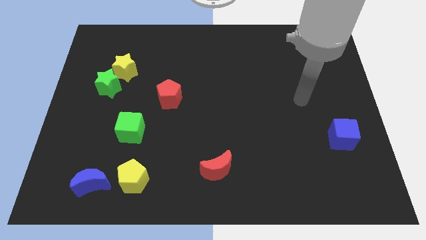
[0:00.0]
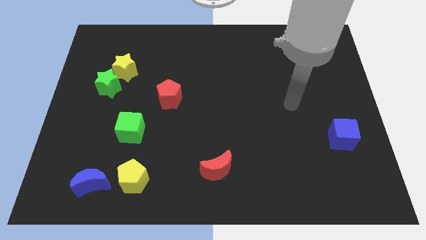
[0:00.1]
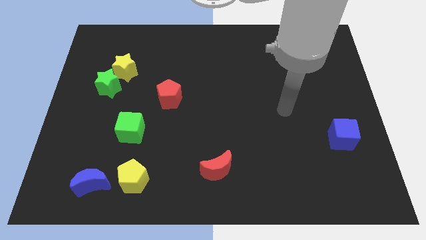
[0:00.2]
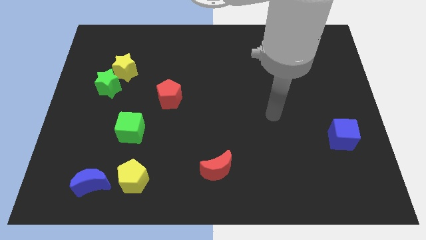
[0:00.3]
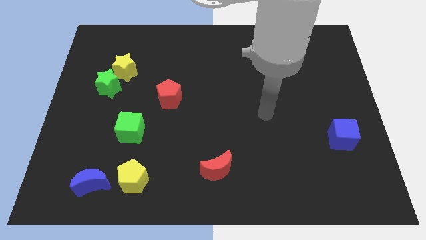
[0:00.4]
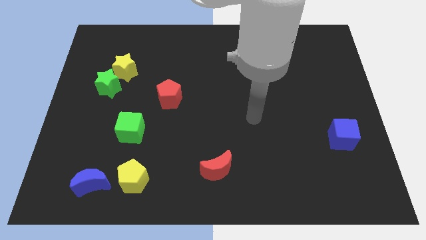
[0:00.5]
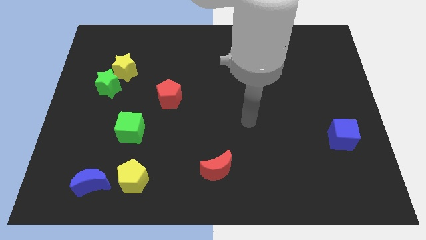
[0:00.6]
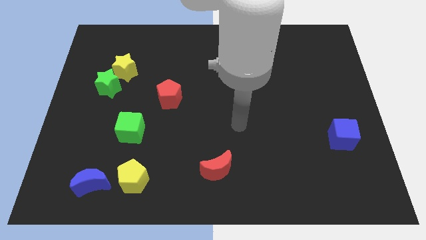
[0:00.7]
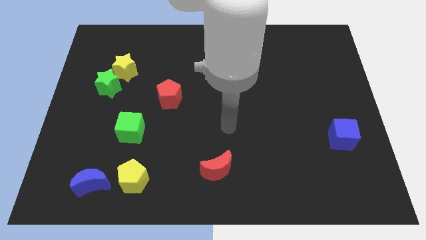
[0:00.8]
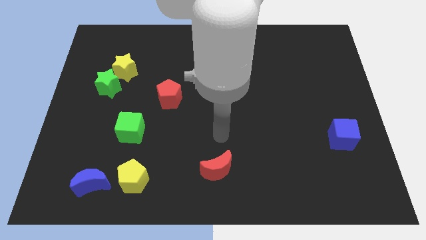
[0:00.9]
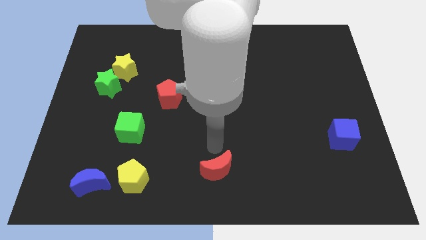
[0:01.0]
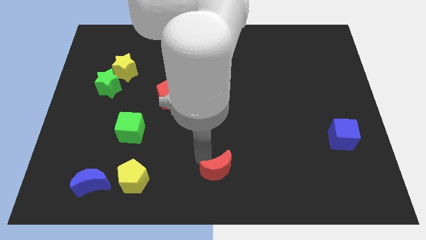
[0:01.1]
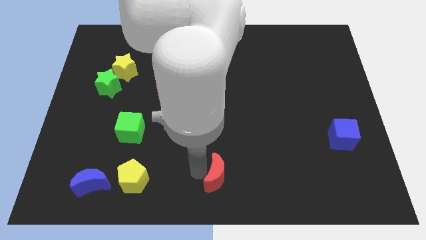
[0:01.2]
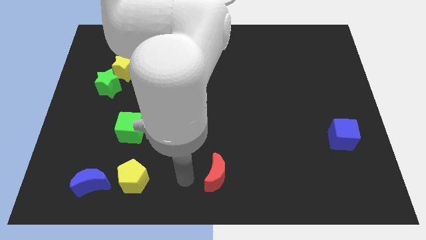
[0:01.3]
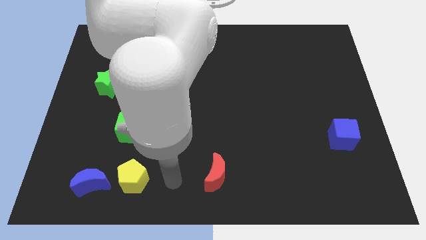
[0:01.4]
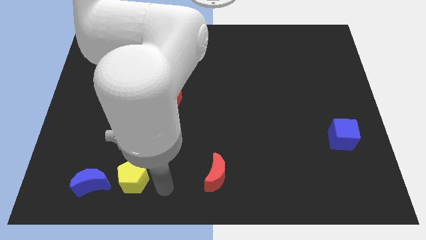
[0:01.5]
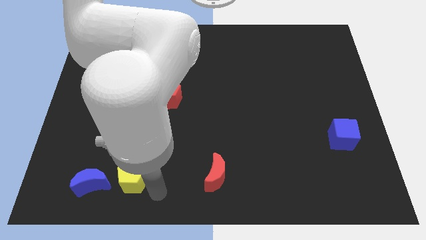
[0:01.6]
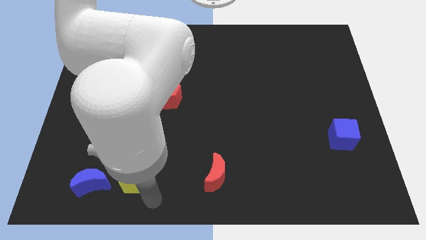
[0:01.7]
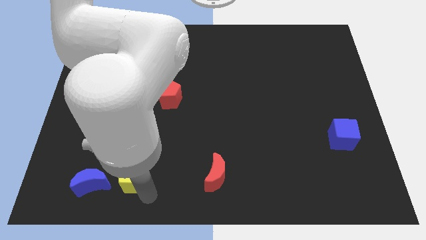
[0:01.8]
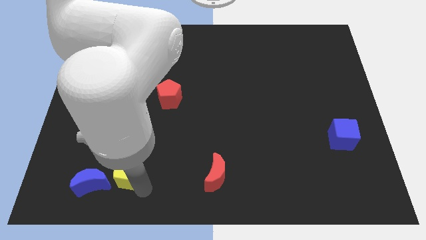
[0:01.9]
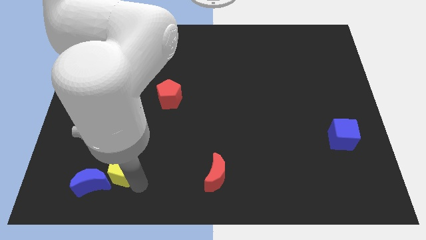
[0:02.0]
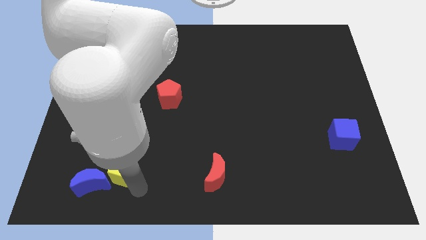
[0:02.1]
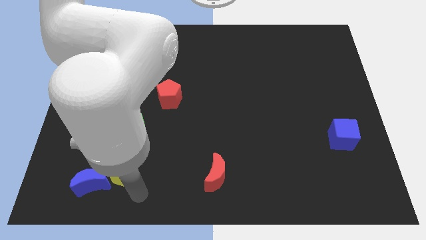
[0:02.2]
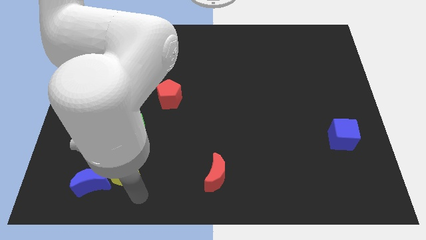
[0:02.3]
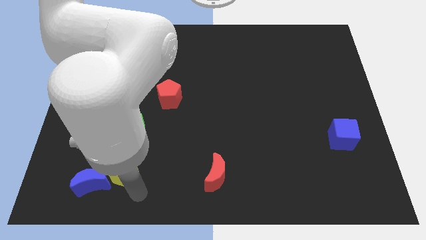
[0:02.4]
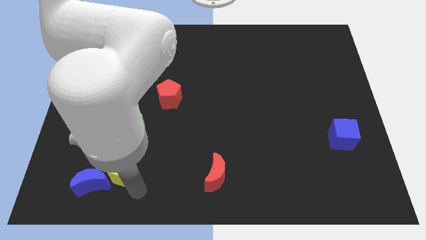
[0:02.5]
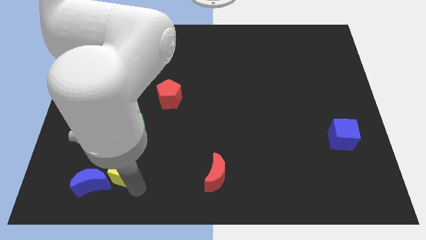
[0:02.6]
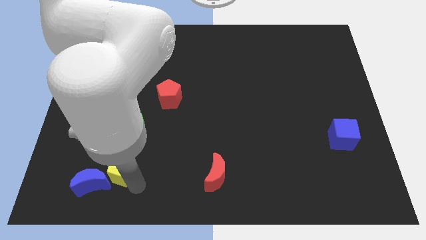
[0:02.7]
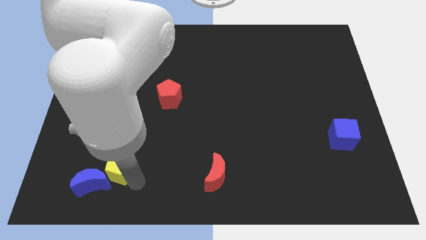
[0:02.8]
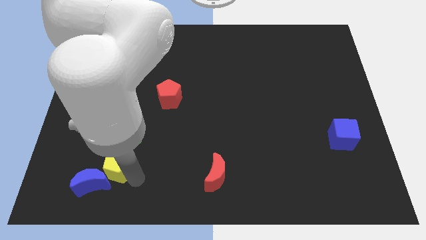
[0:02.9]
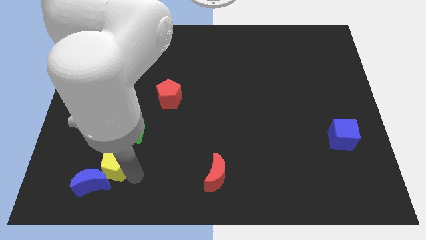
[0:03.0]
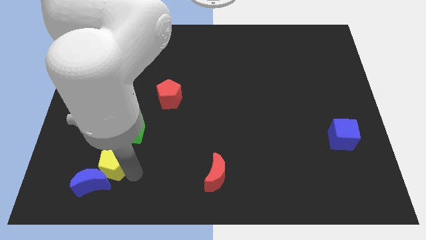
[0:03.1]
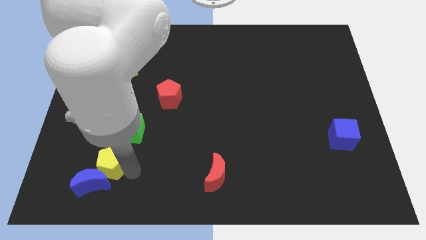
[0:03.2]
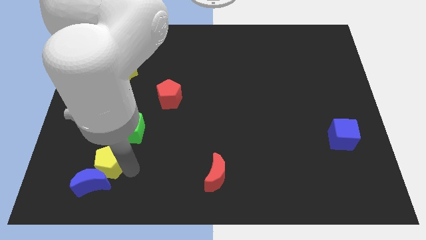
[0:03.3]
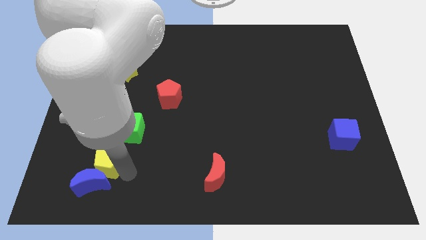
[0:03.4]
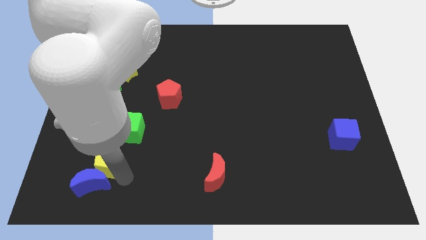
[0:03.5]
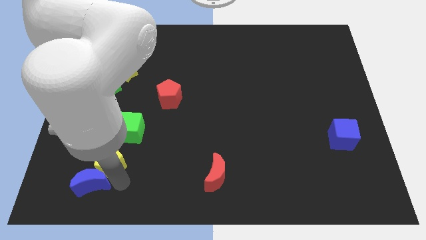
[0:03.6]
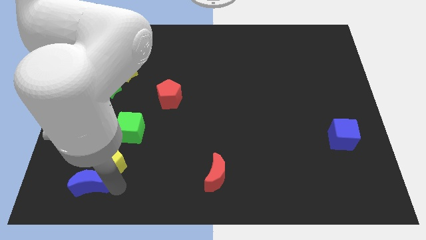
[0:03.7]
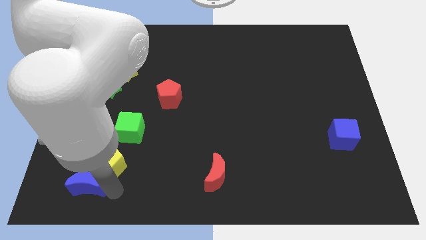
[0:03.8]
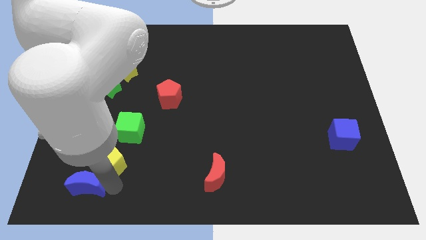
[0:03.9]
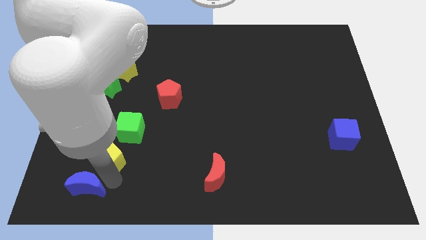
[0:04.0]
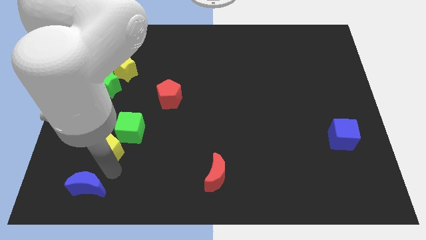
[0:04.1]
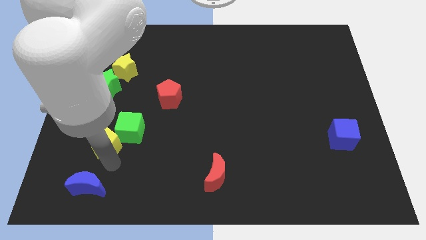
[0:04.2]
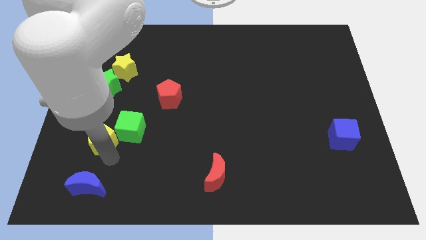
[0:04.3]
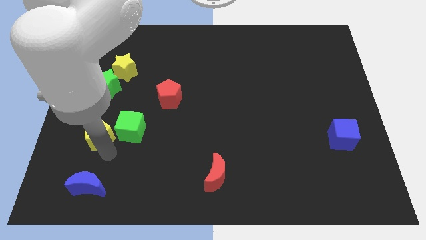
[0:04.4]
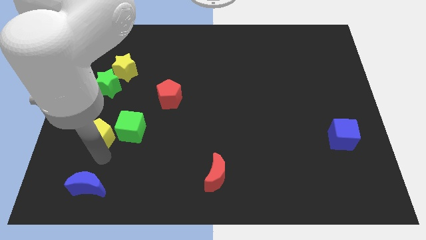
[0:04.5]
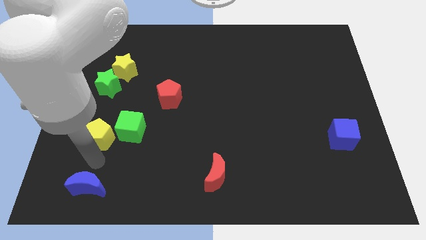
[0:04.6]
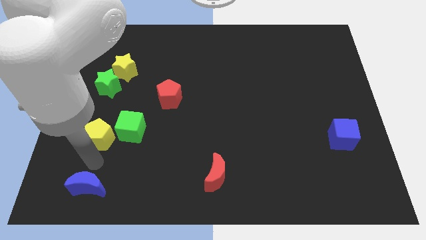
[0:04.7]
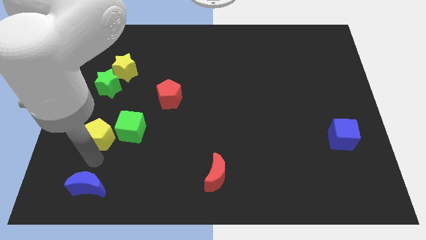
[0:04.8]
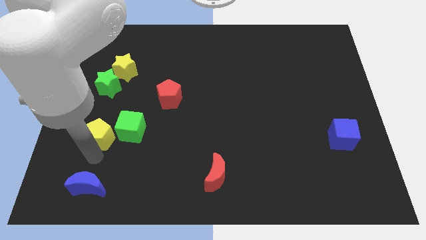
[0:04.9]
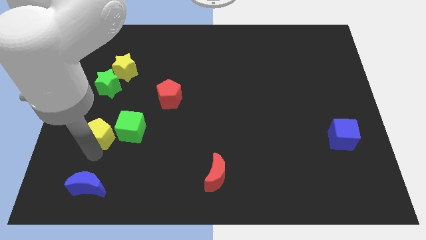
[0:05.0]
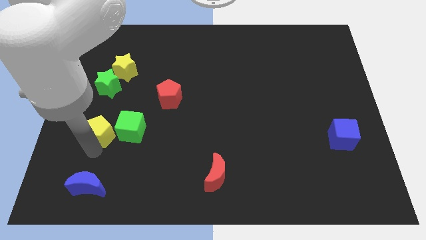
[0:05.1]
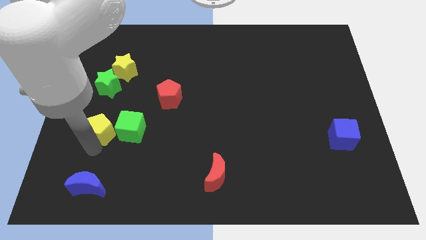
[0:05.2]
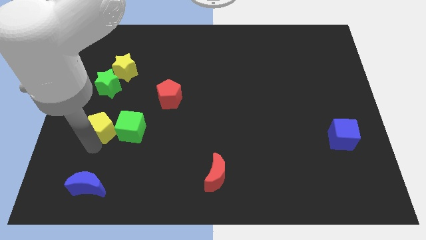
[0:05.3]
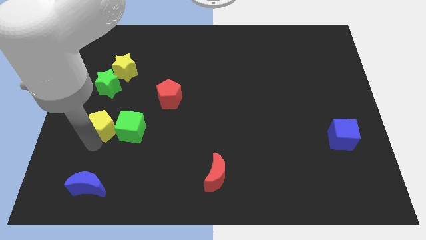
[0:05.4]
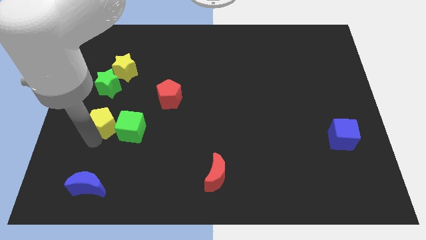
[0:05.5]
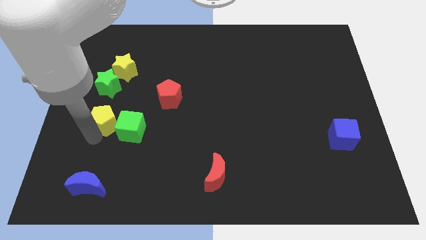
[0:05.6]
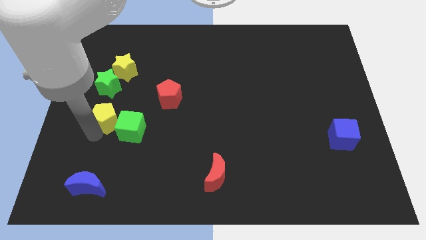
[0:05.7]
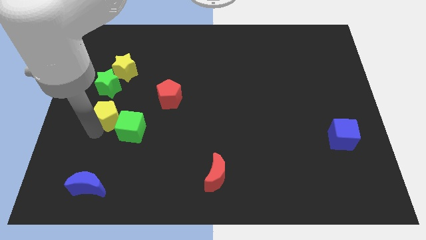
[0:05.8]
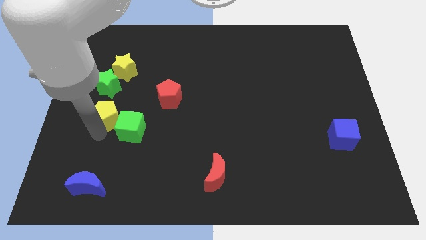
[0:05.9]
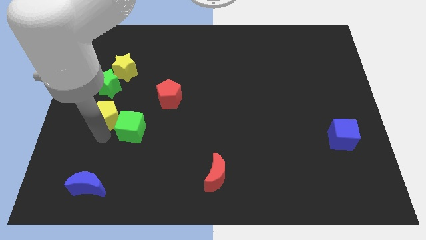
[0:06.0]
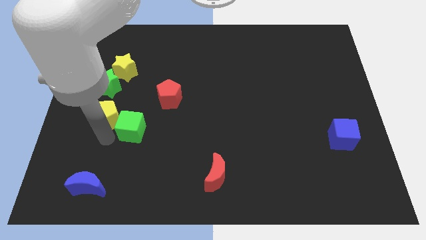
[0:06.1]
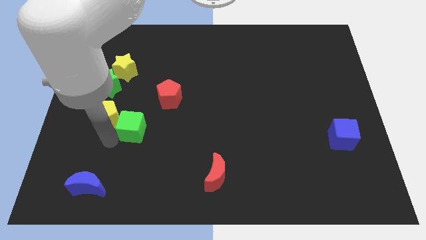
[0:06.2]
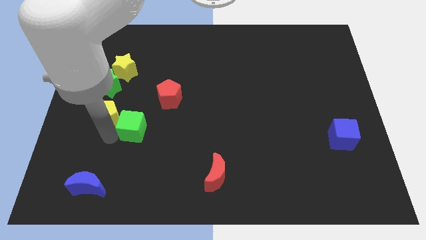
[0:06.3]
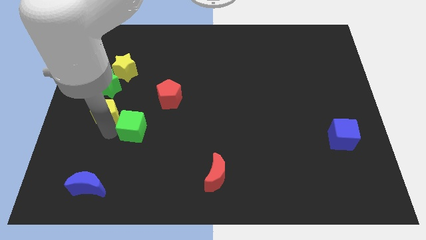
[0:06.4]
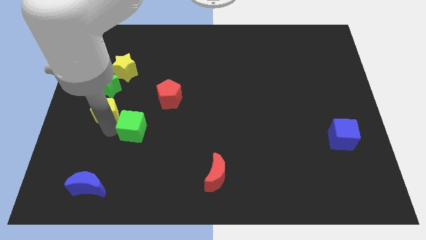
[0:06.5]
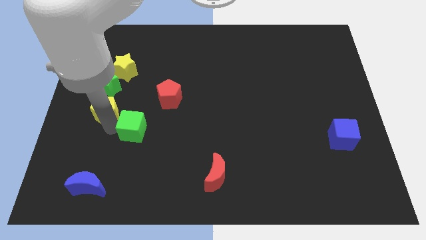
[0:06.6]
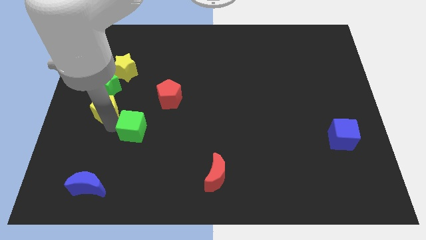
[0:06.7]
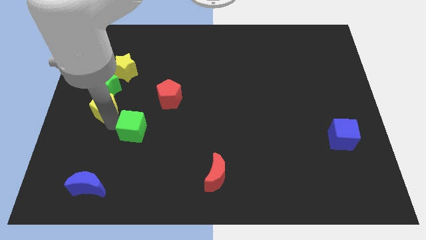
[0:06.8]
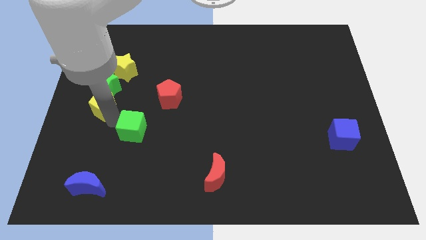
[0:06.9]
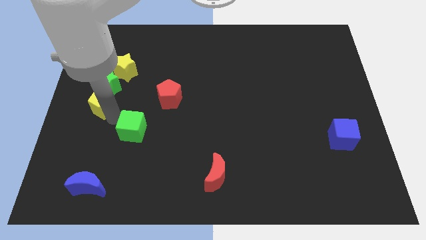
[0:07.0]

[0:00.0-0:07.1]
push the yellow pentagon to the green star
